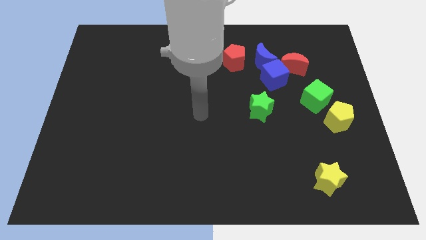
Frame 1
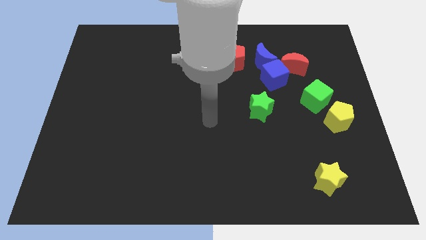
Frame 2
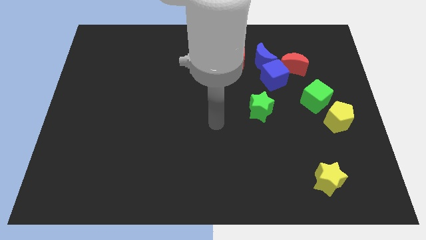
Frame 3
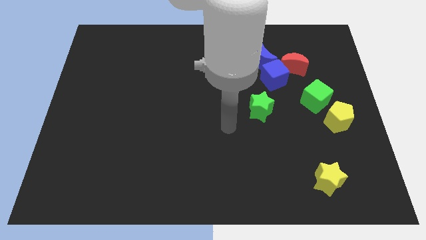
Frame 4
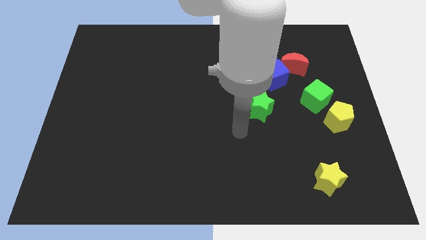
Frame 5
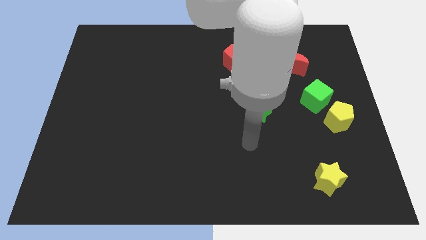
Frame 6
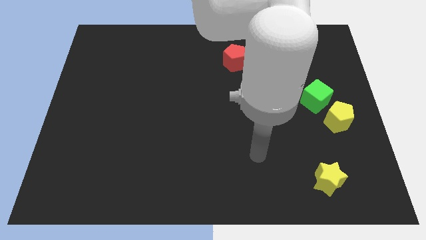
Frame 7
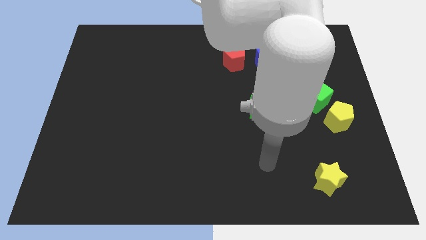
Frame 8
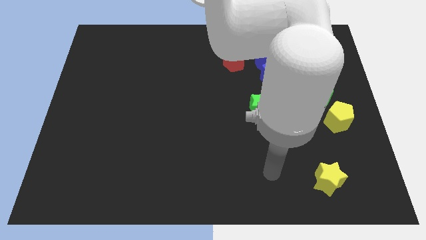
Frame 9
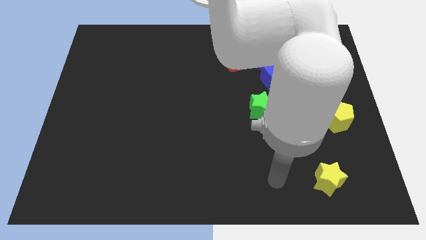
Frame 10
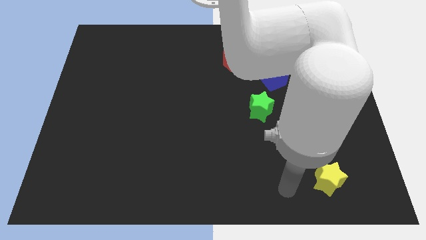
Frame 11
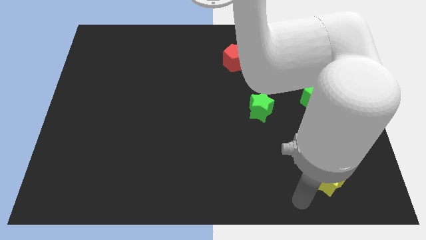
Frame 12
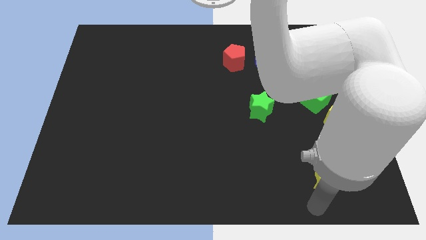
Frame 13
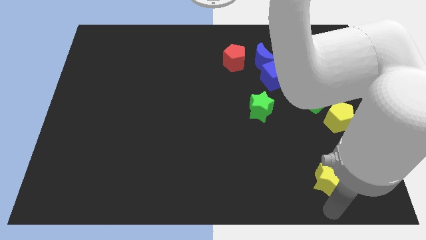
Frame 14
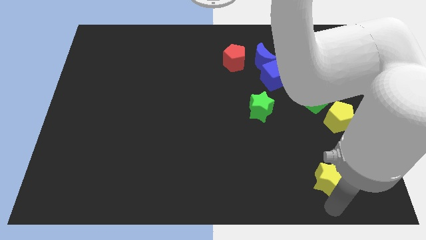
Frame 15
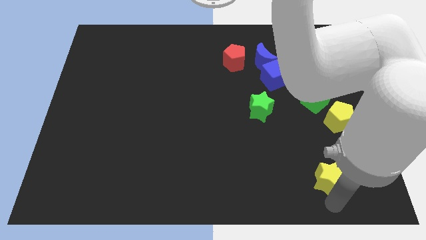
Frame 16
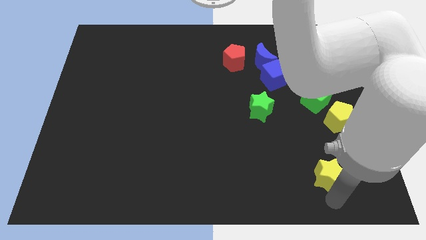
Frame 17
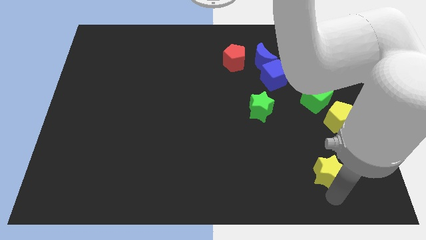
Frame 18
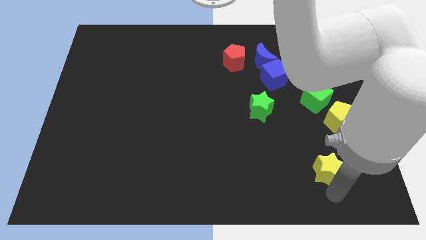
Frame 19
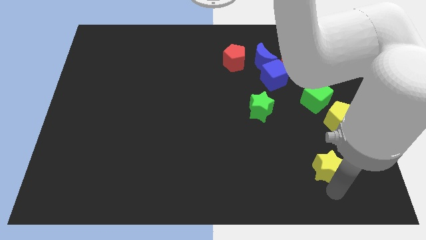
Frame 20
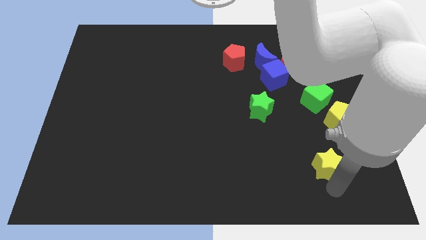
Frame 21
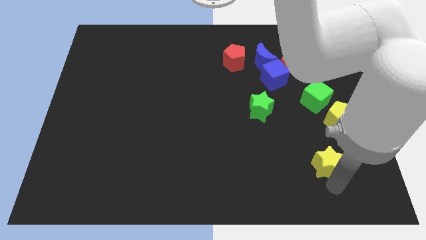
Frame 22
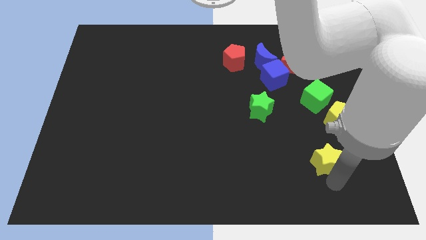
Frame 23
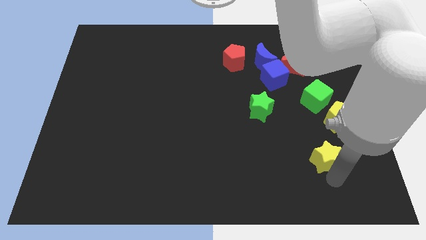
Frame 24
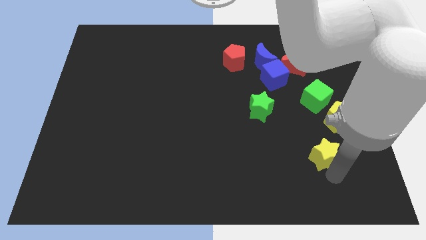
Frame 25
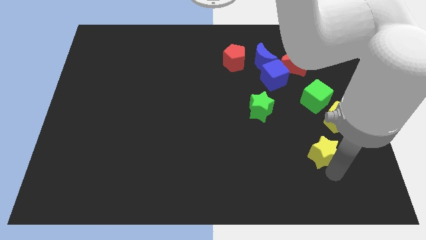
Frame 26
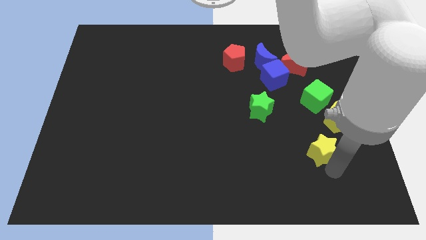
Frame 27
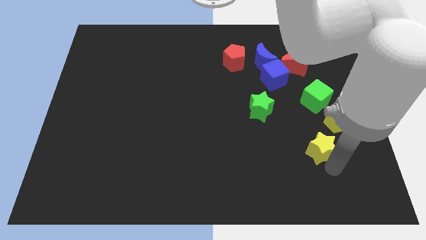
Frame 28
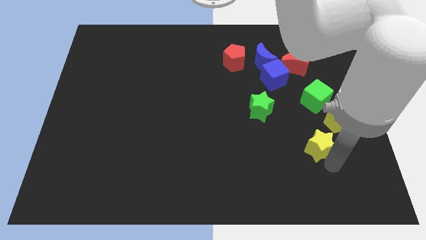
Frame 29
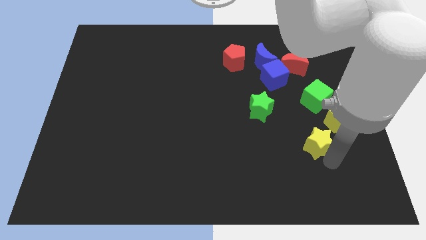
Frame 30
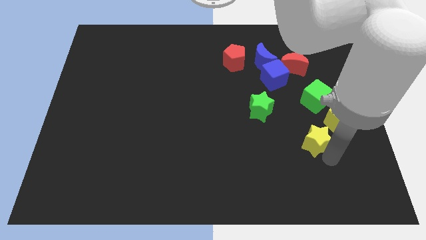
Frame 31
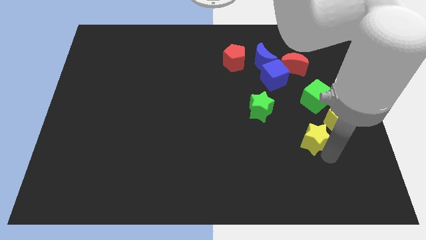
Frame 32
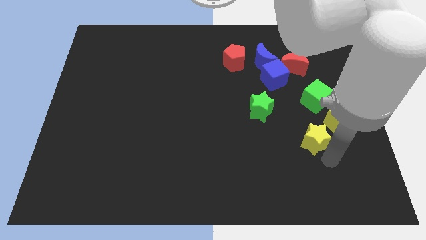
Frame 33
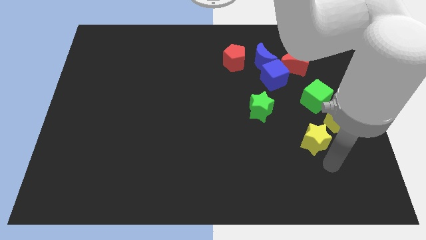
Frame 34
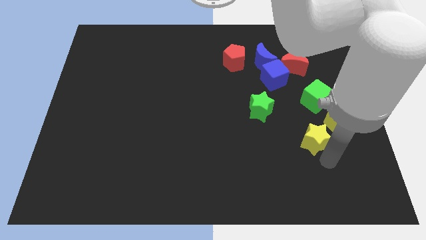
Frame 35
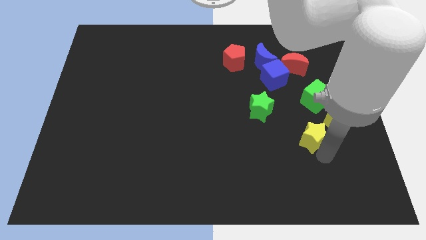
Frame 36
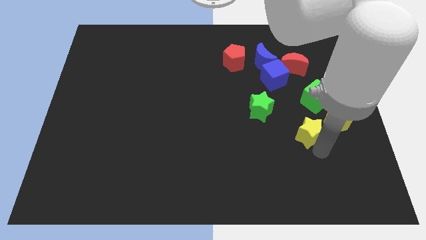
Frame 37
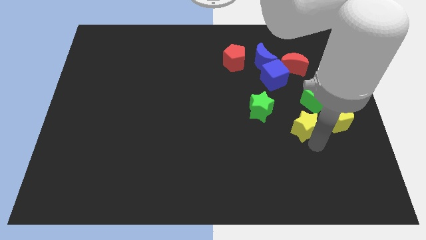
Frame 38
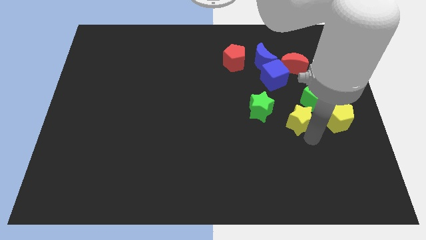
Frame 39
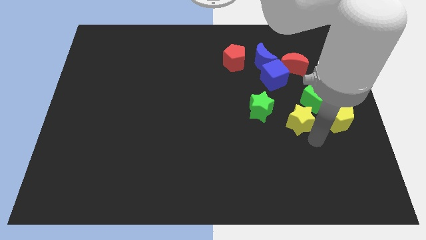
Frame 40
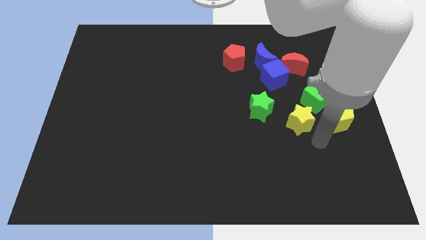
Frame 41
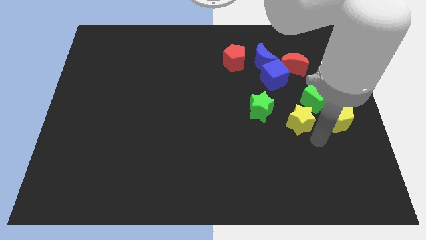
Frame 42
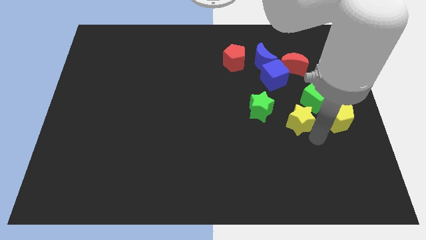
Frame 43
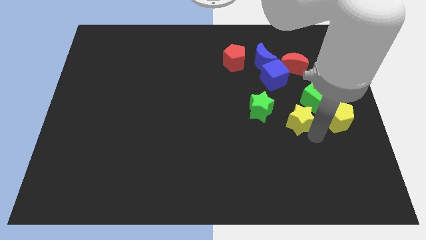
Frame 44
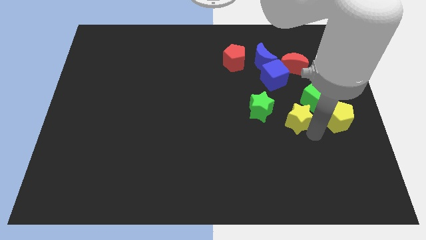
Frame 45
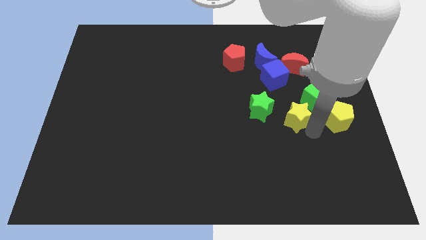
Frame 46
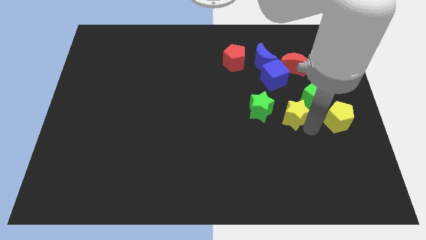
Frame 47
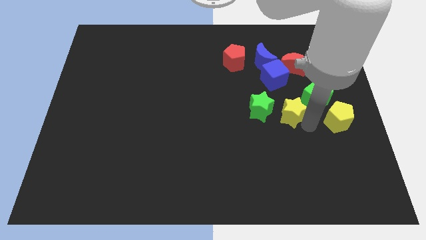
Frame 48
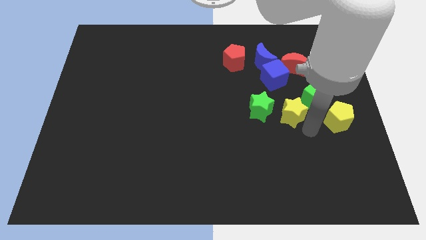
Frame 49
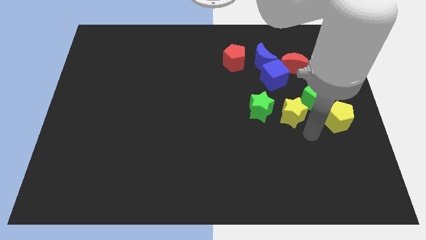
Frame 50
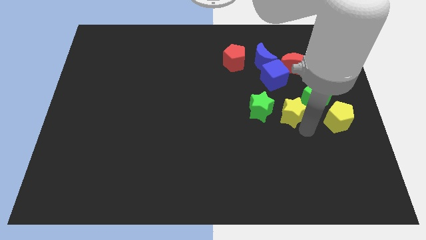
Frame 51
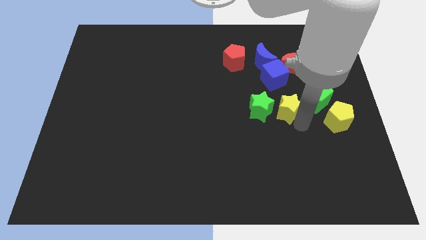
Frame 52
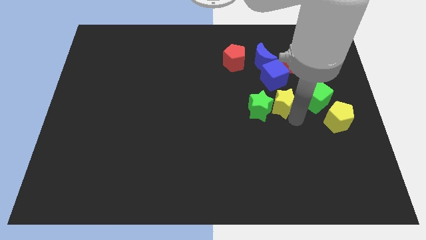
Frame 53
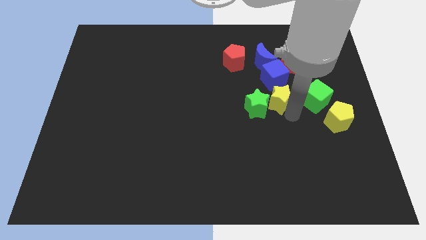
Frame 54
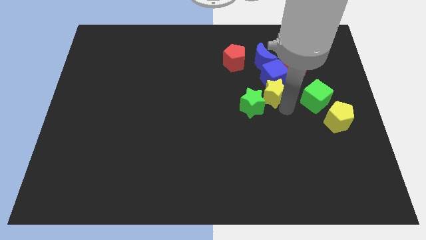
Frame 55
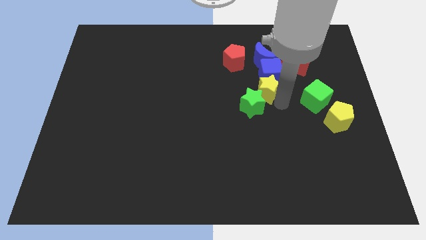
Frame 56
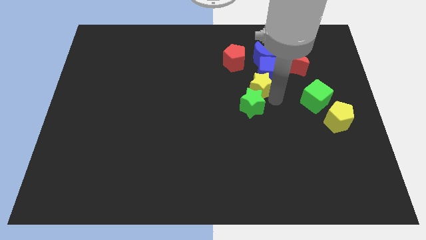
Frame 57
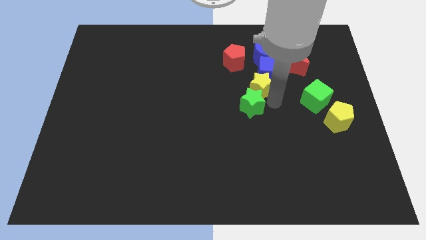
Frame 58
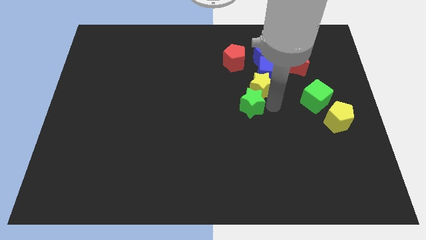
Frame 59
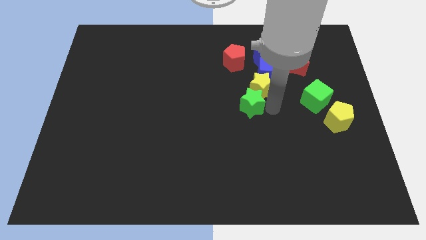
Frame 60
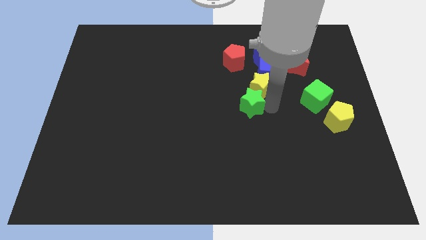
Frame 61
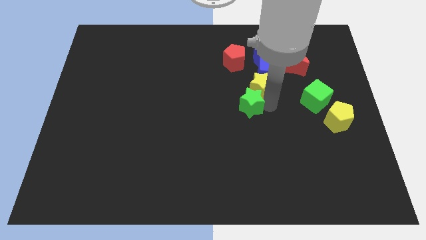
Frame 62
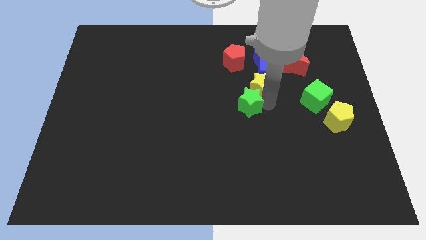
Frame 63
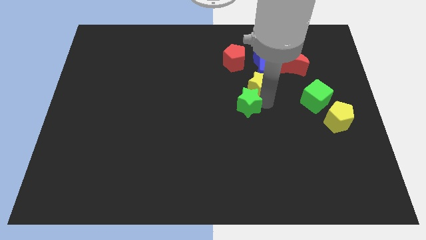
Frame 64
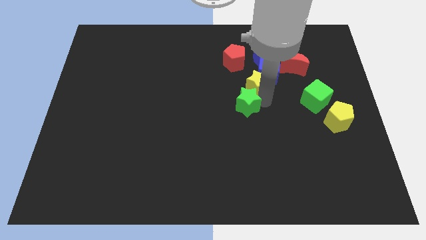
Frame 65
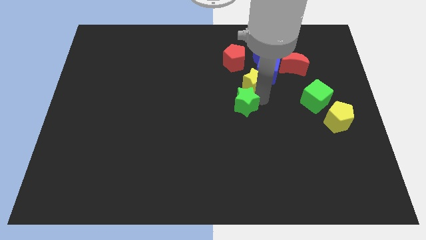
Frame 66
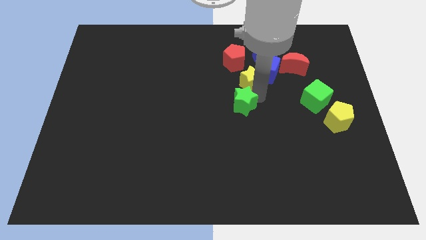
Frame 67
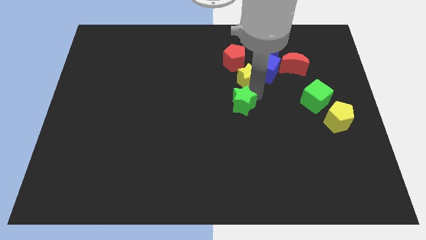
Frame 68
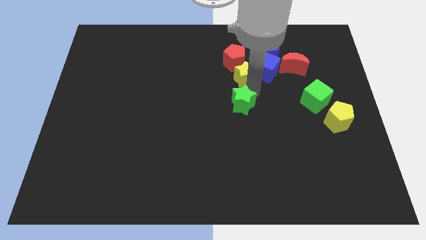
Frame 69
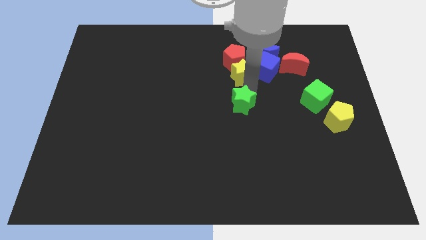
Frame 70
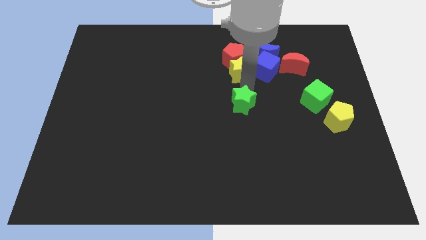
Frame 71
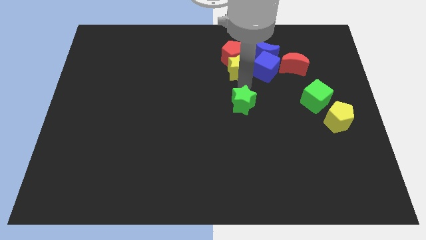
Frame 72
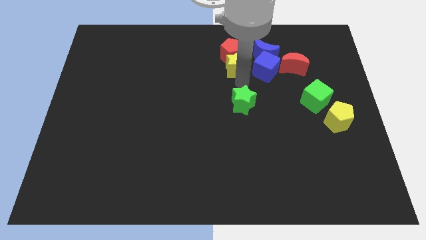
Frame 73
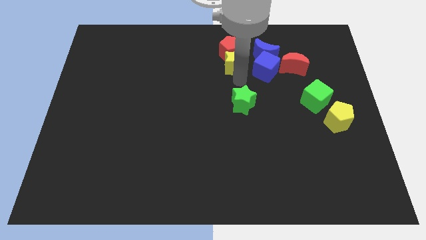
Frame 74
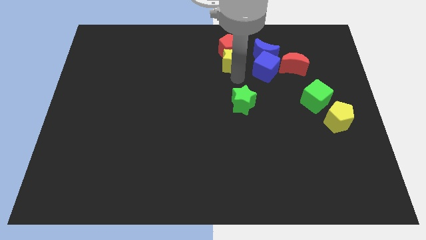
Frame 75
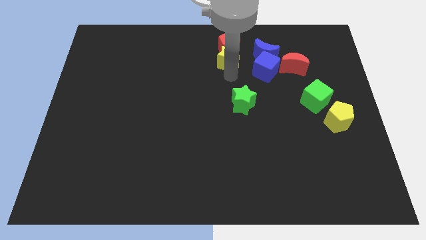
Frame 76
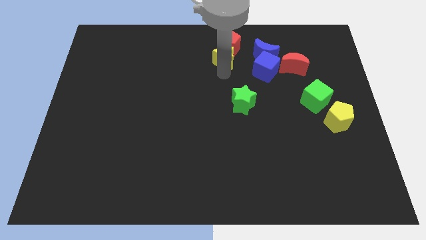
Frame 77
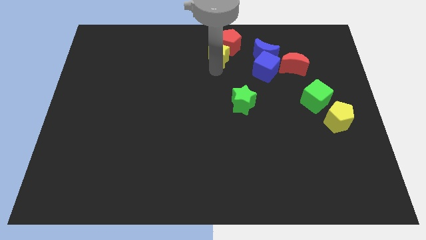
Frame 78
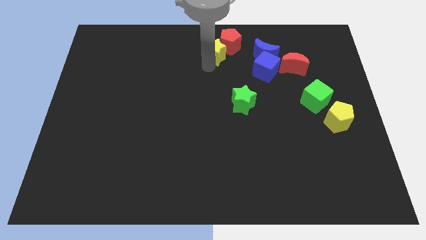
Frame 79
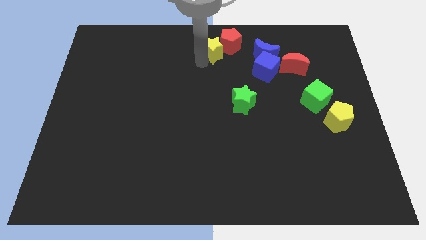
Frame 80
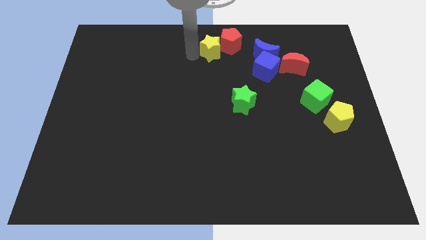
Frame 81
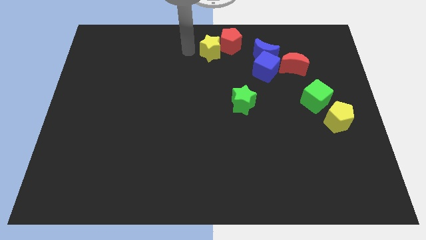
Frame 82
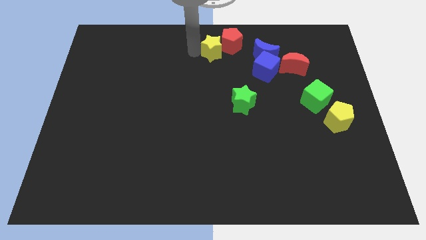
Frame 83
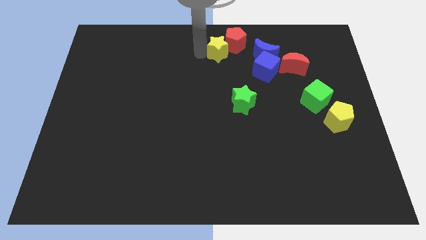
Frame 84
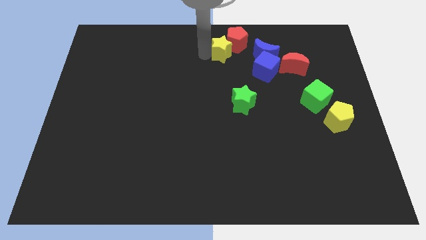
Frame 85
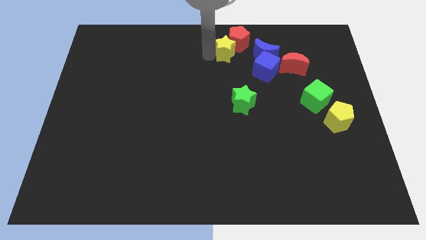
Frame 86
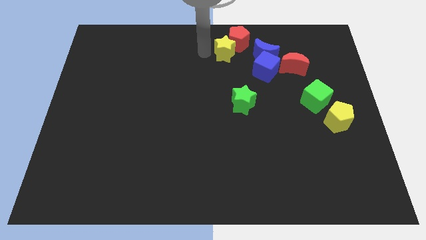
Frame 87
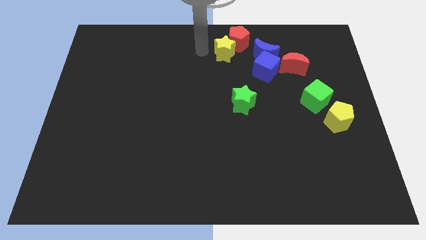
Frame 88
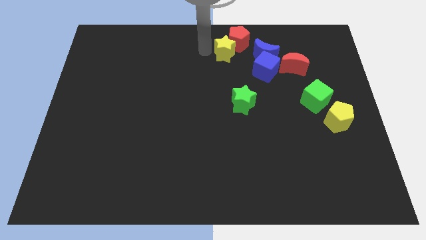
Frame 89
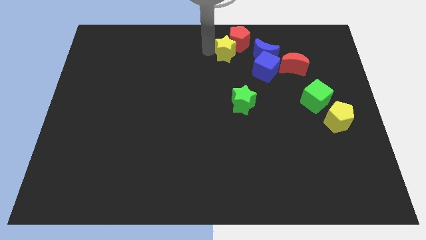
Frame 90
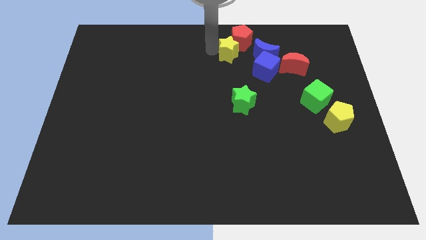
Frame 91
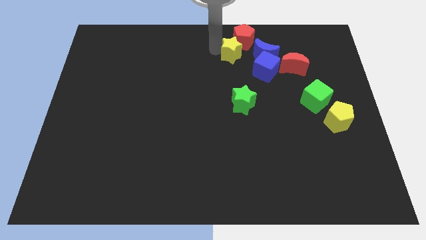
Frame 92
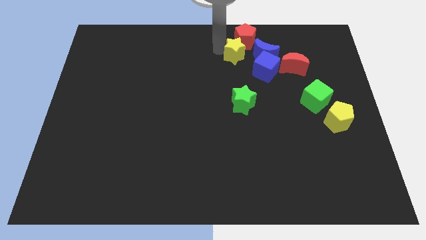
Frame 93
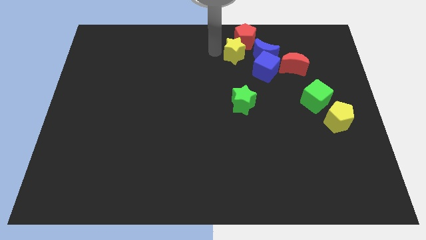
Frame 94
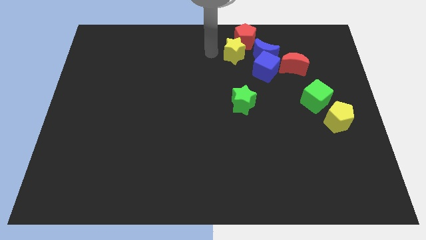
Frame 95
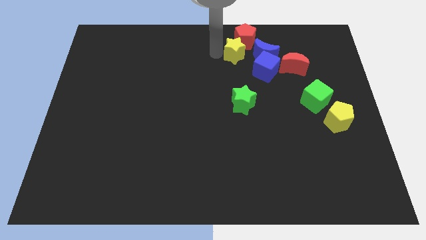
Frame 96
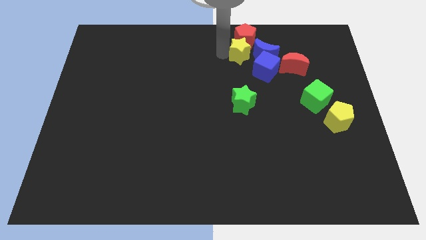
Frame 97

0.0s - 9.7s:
slide the yellow star to the blue moon
